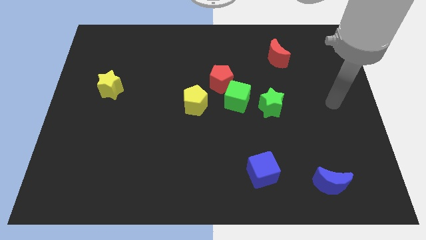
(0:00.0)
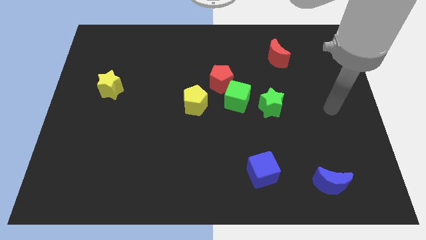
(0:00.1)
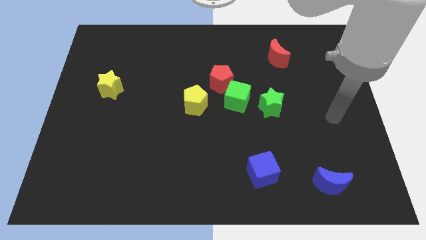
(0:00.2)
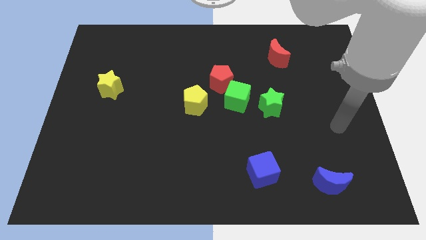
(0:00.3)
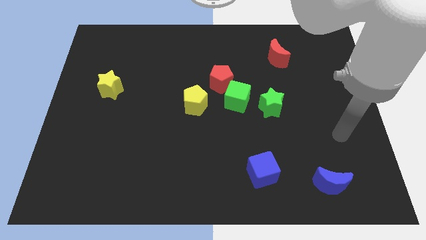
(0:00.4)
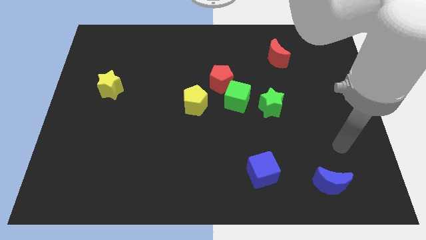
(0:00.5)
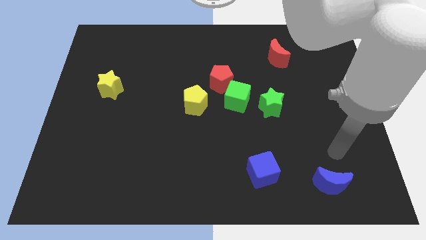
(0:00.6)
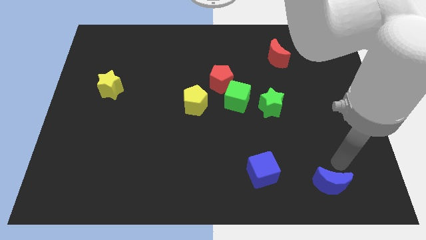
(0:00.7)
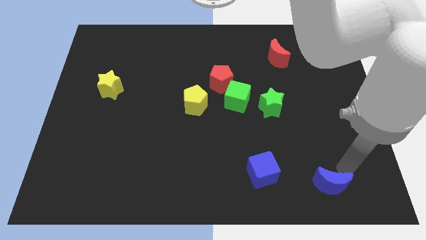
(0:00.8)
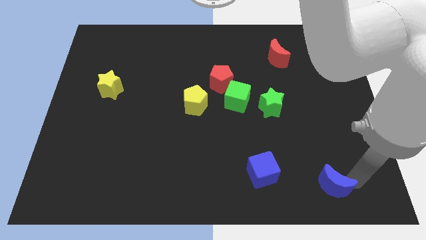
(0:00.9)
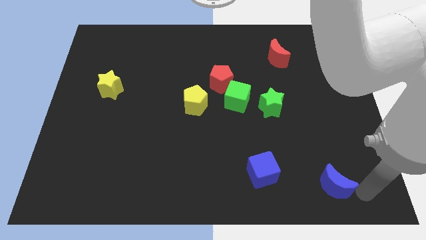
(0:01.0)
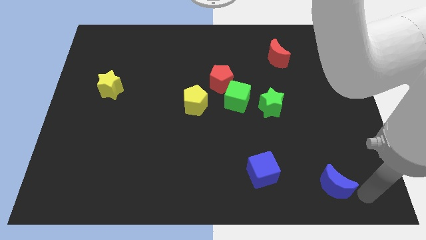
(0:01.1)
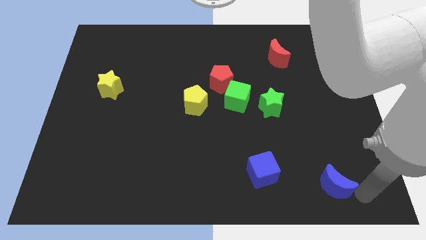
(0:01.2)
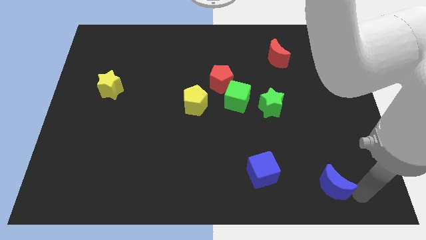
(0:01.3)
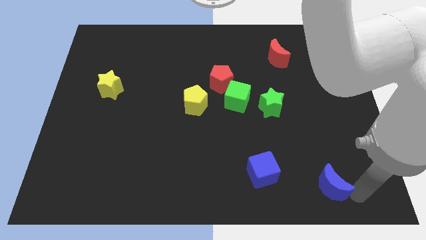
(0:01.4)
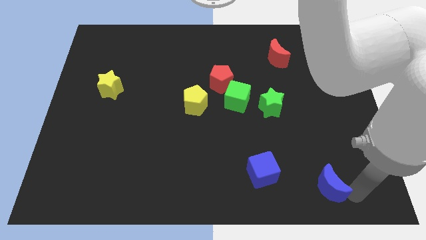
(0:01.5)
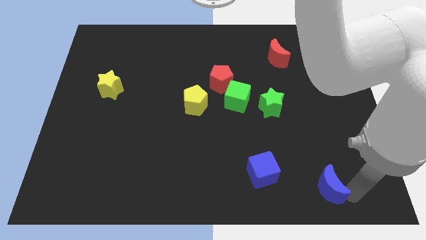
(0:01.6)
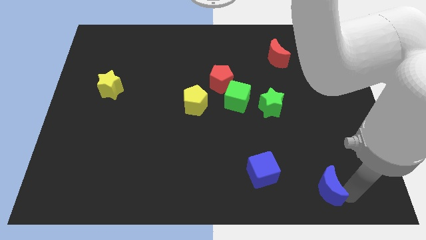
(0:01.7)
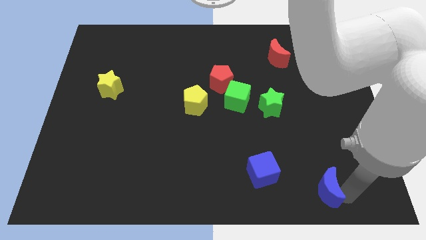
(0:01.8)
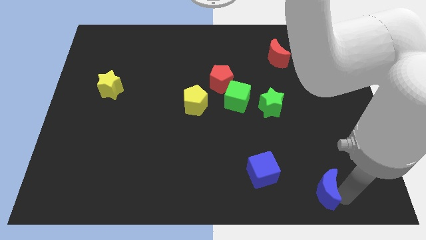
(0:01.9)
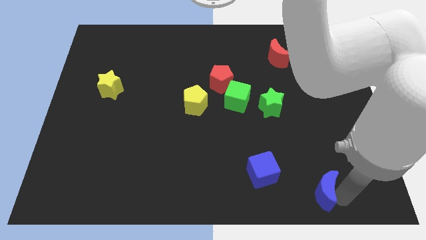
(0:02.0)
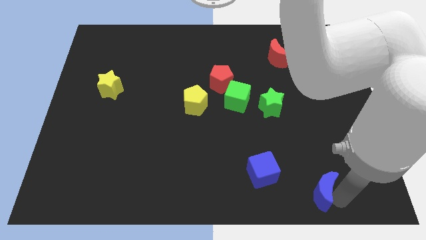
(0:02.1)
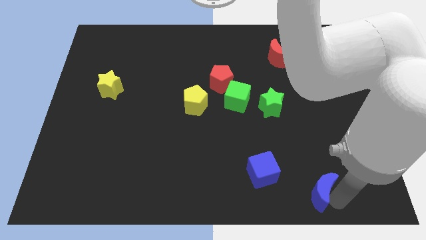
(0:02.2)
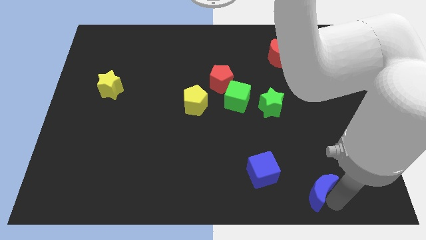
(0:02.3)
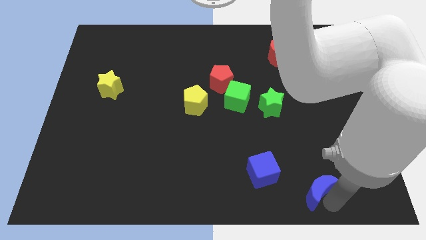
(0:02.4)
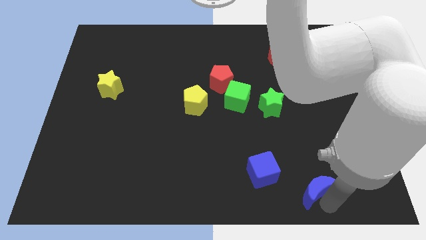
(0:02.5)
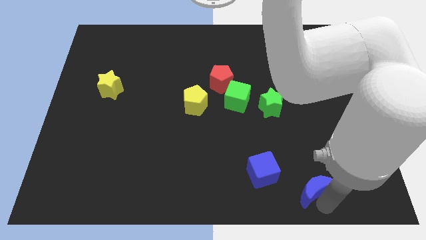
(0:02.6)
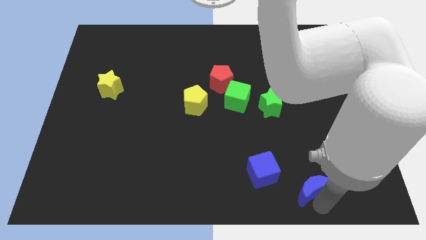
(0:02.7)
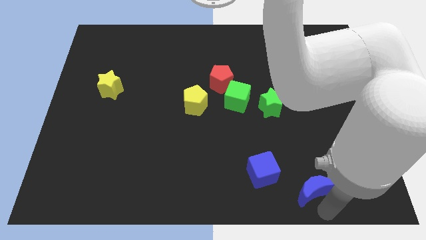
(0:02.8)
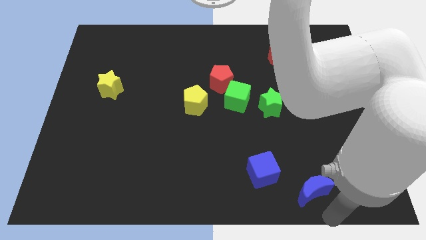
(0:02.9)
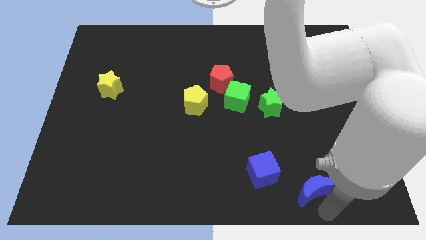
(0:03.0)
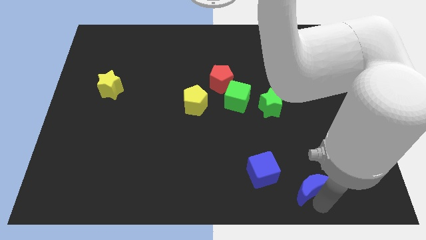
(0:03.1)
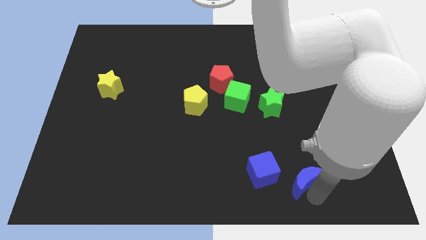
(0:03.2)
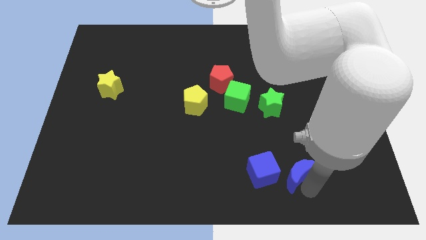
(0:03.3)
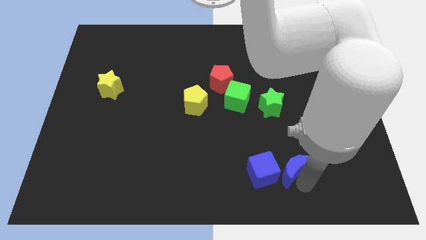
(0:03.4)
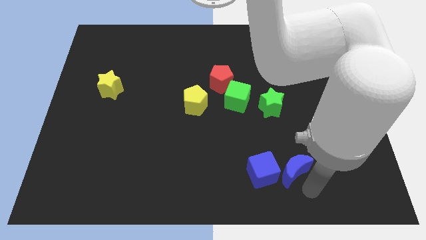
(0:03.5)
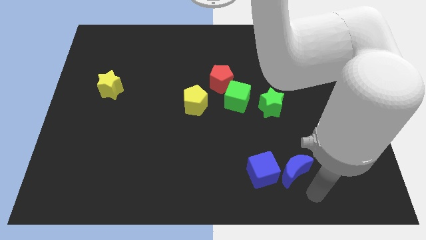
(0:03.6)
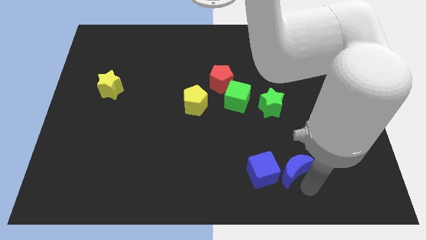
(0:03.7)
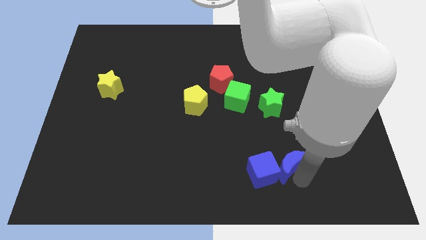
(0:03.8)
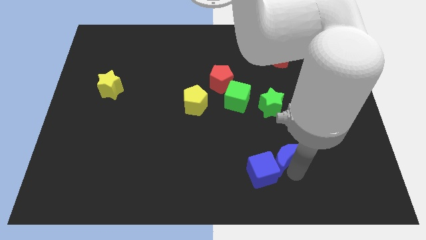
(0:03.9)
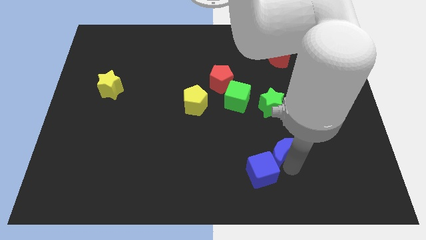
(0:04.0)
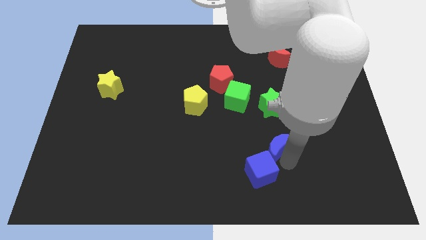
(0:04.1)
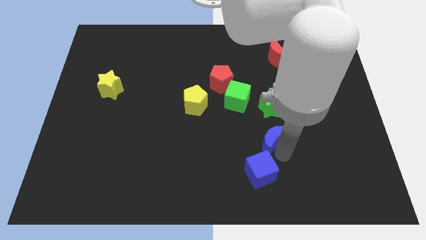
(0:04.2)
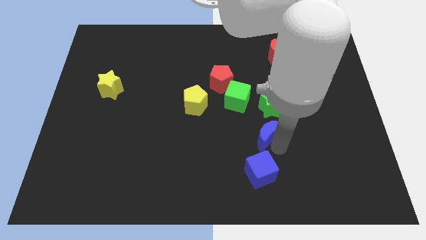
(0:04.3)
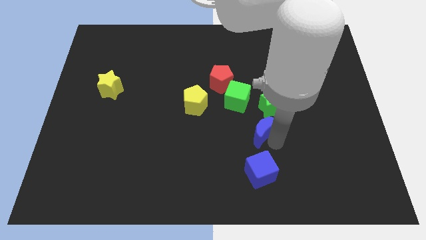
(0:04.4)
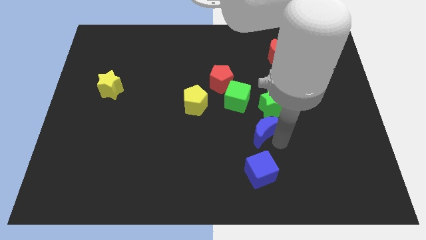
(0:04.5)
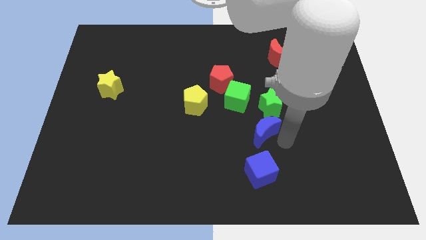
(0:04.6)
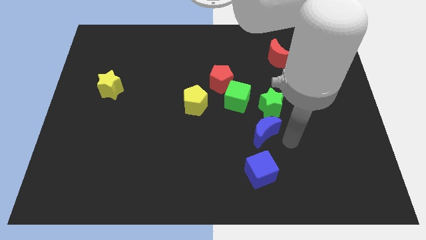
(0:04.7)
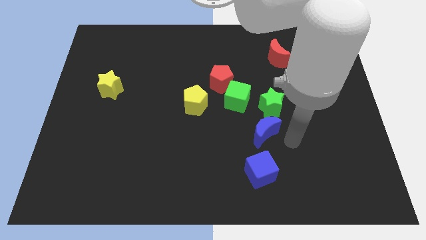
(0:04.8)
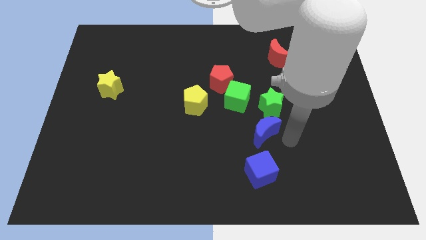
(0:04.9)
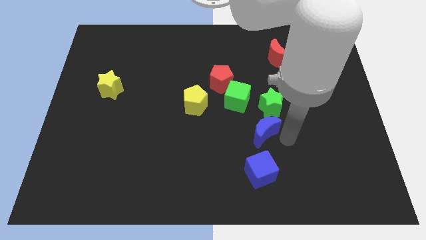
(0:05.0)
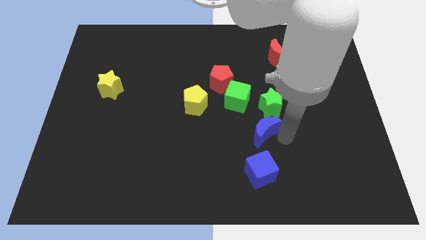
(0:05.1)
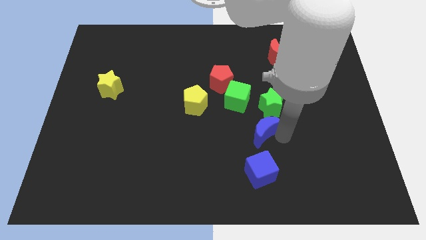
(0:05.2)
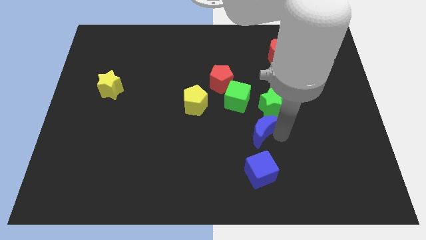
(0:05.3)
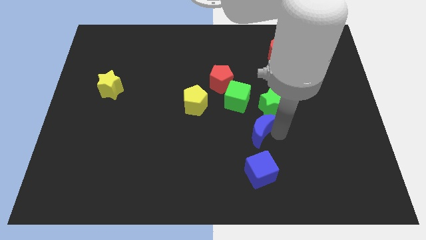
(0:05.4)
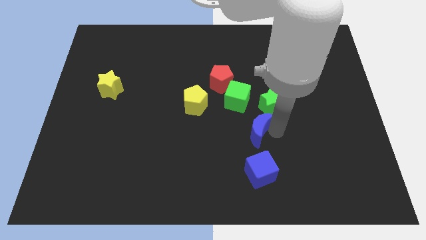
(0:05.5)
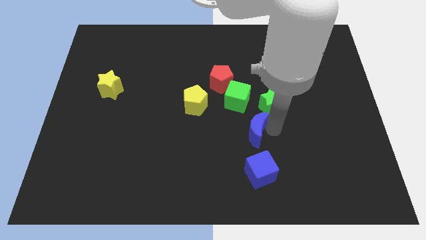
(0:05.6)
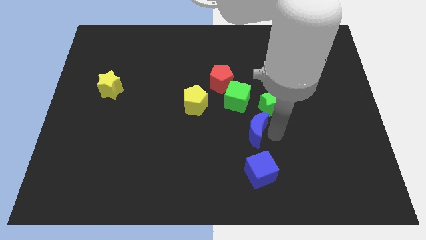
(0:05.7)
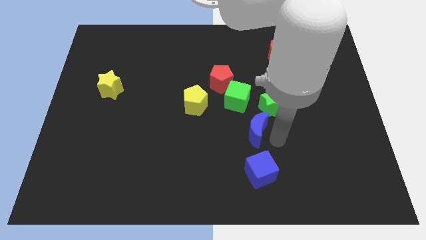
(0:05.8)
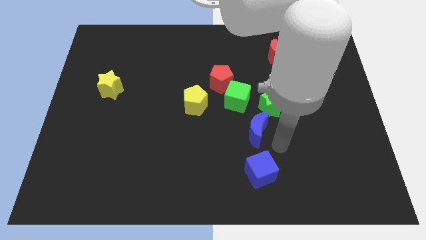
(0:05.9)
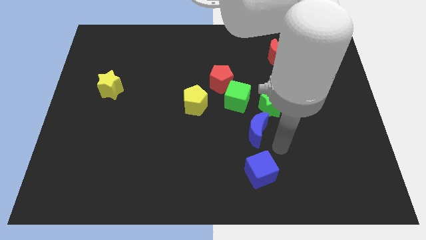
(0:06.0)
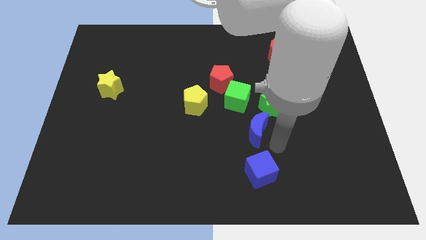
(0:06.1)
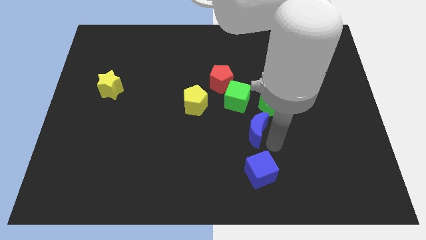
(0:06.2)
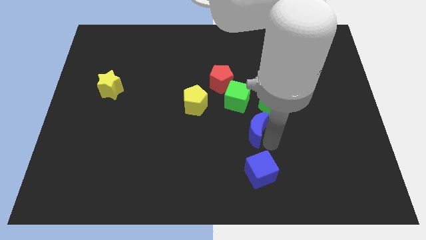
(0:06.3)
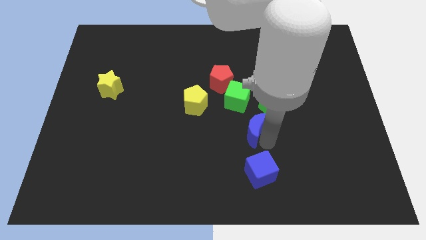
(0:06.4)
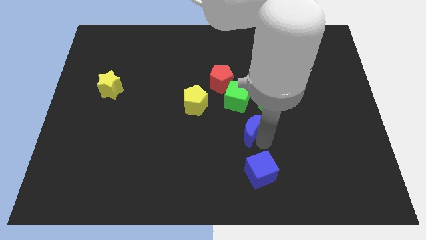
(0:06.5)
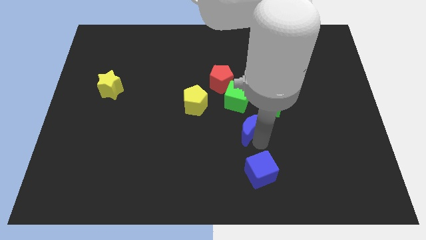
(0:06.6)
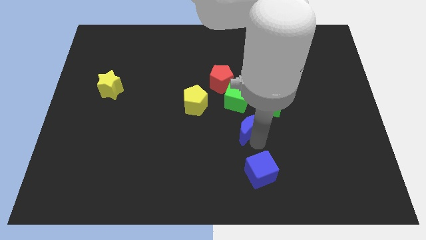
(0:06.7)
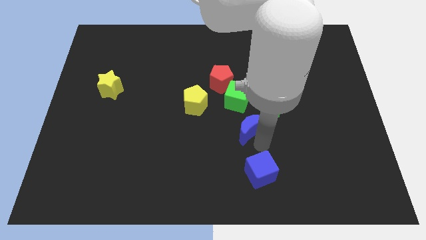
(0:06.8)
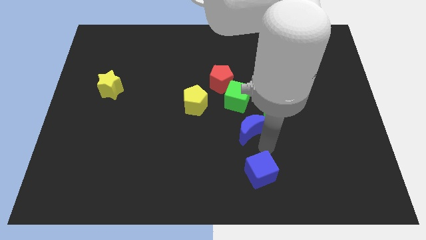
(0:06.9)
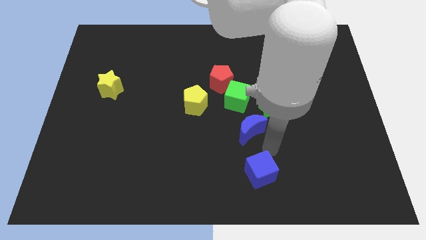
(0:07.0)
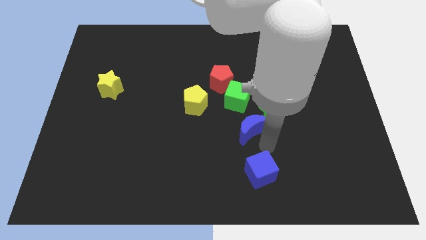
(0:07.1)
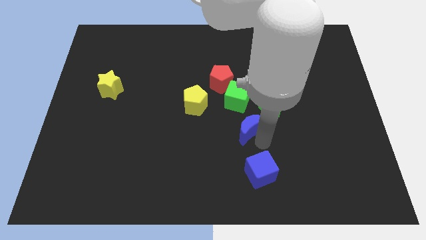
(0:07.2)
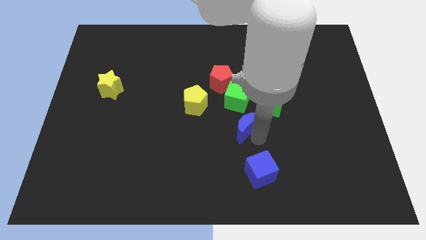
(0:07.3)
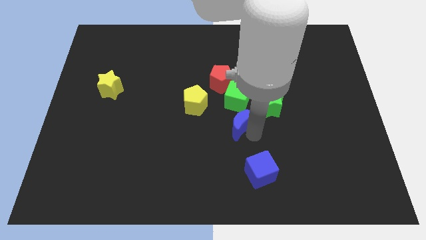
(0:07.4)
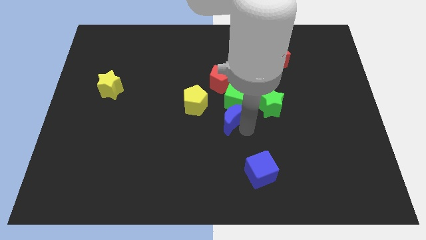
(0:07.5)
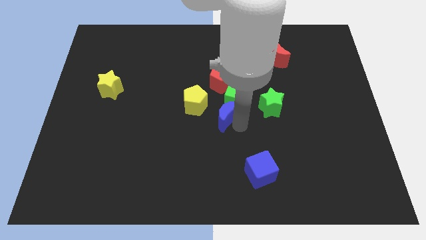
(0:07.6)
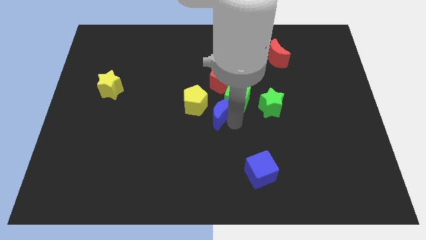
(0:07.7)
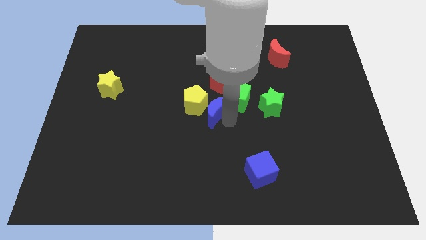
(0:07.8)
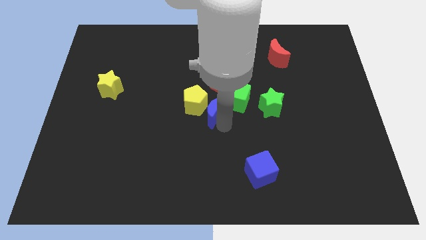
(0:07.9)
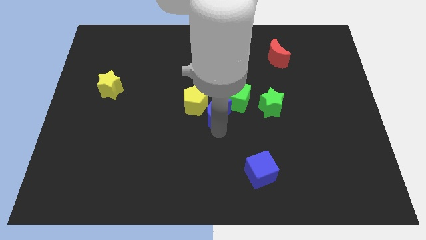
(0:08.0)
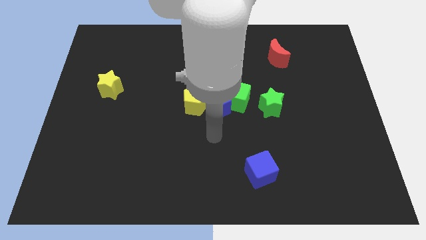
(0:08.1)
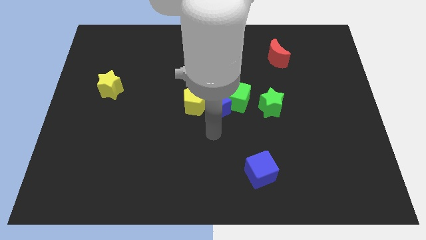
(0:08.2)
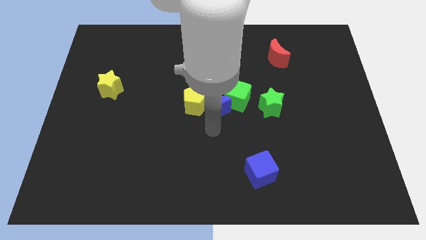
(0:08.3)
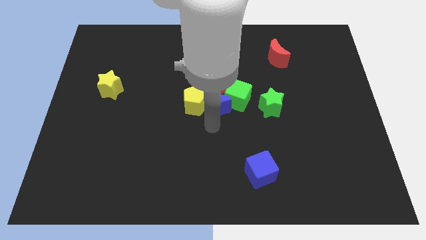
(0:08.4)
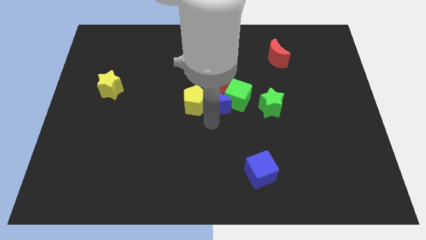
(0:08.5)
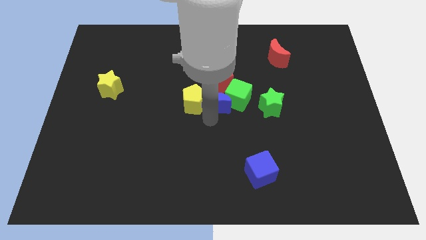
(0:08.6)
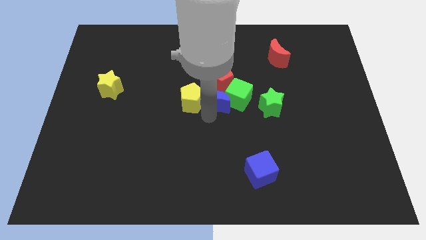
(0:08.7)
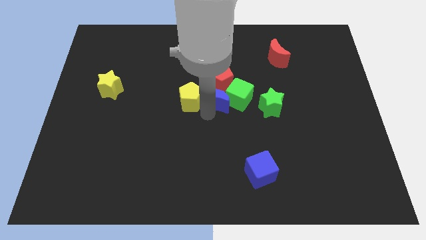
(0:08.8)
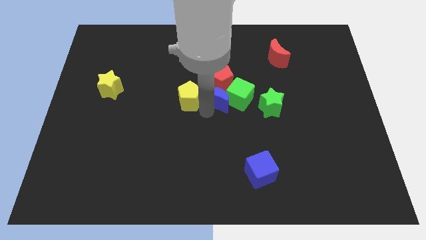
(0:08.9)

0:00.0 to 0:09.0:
move the blue moon towards the red pentagon
